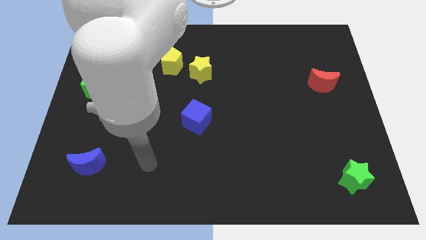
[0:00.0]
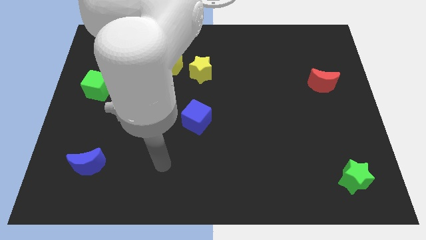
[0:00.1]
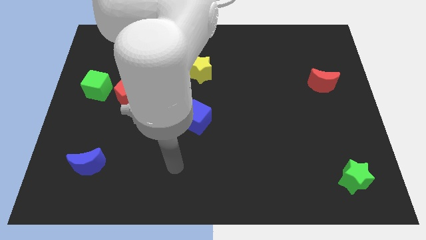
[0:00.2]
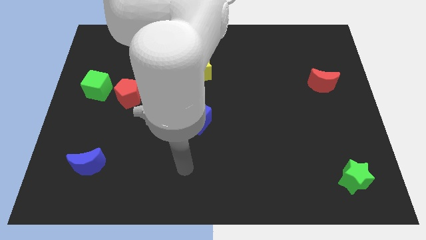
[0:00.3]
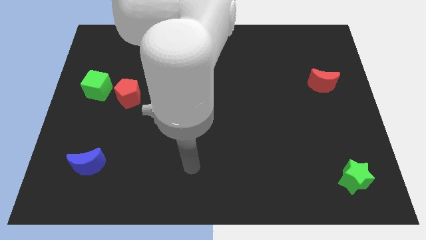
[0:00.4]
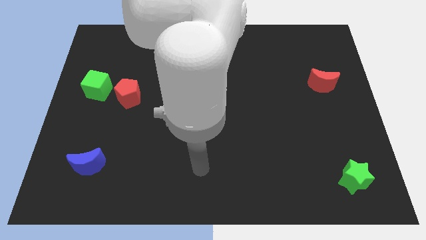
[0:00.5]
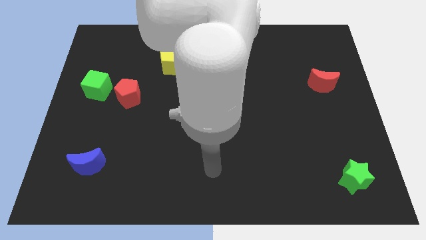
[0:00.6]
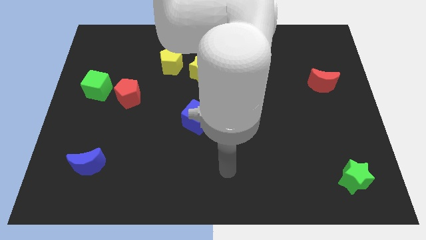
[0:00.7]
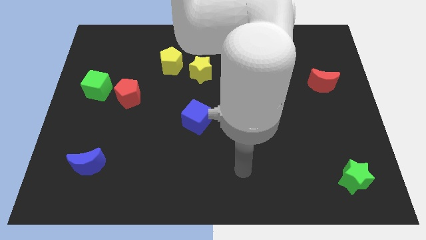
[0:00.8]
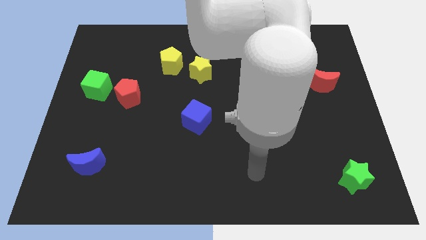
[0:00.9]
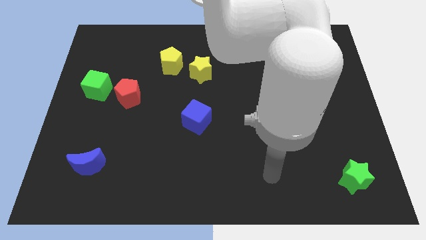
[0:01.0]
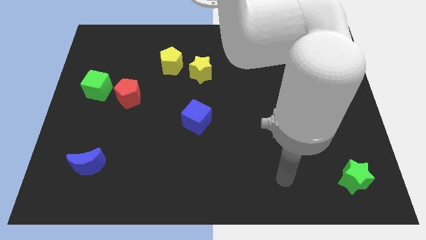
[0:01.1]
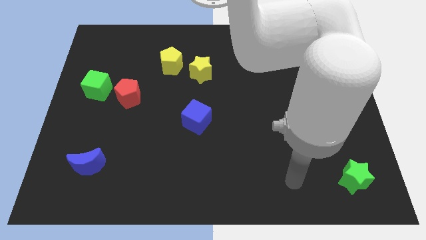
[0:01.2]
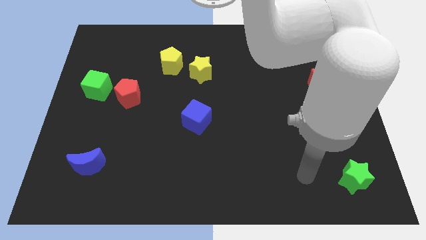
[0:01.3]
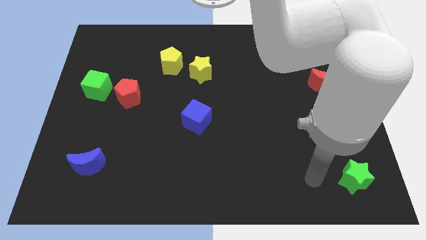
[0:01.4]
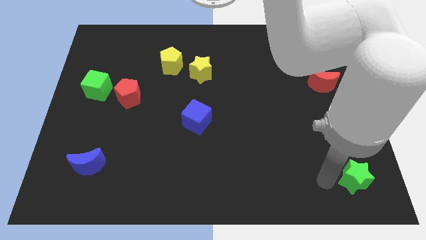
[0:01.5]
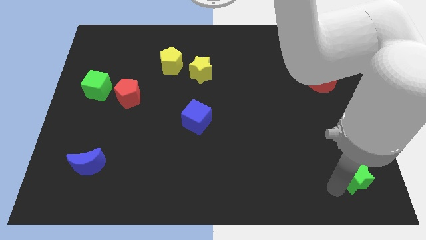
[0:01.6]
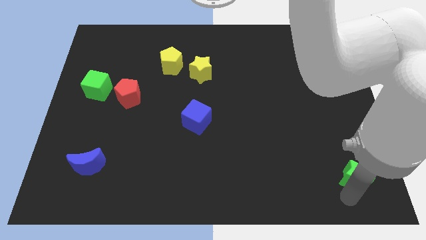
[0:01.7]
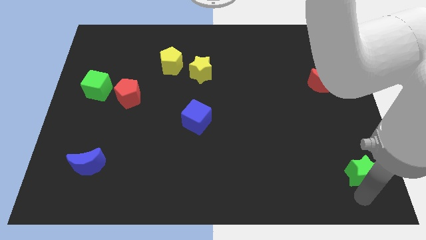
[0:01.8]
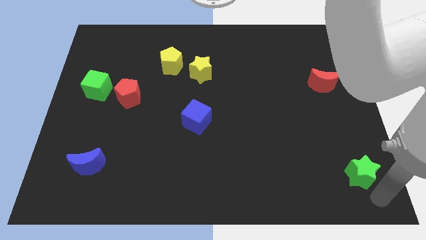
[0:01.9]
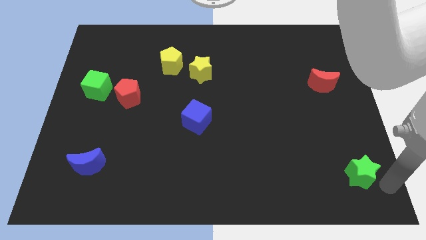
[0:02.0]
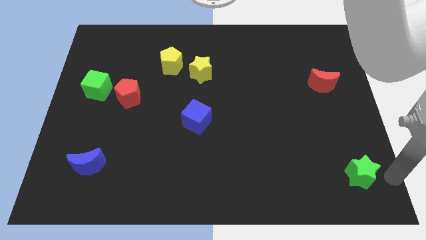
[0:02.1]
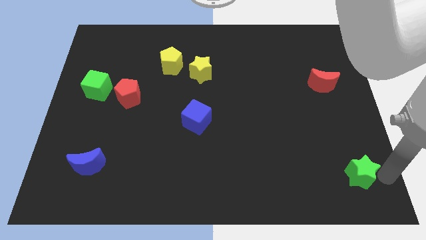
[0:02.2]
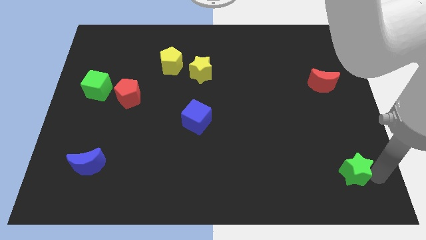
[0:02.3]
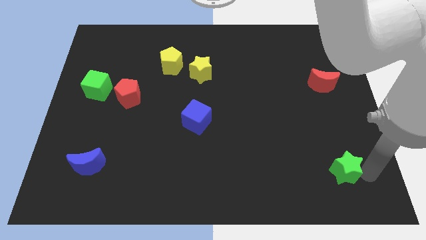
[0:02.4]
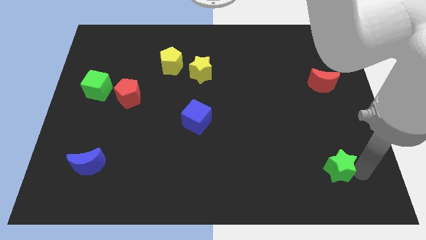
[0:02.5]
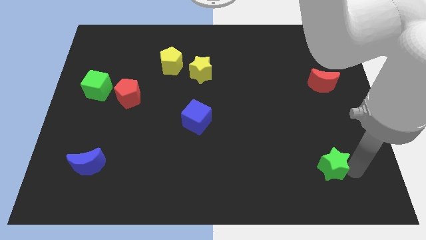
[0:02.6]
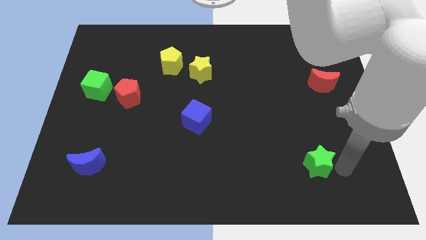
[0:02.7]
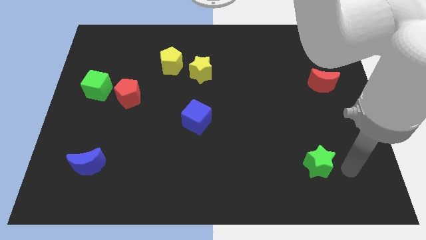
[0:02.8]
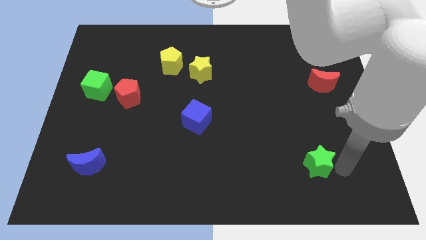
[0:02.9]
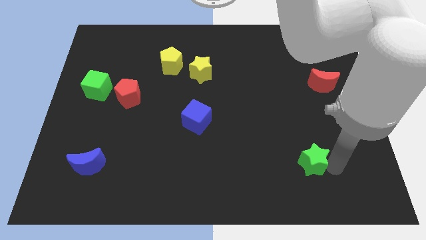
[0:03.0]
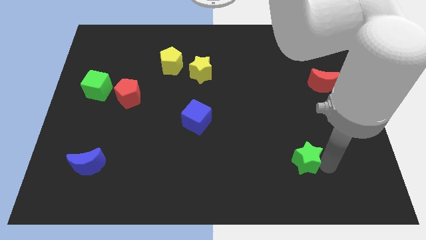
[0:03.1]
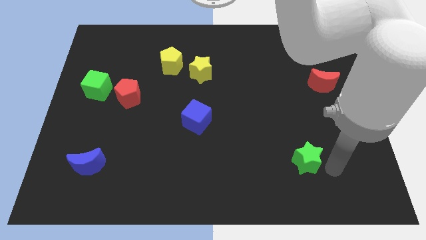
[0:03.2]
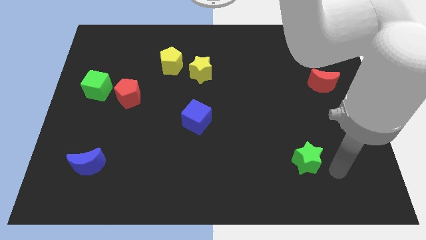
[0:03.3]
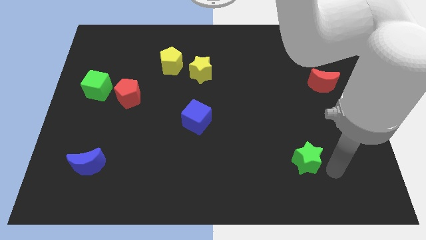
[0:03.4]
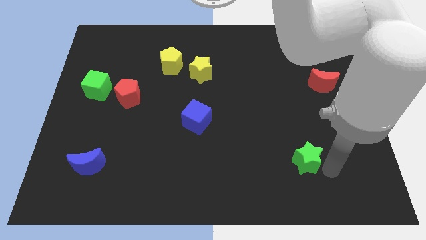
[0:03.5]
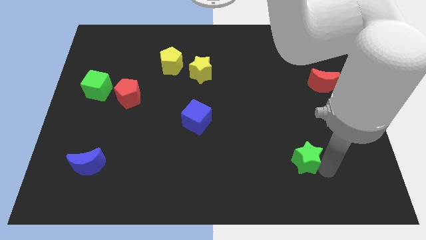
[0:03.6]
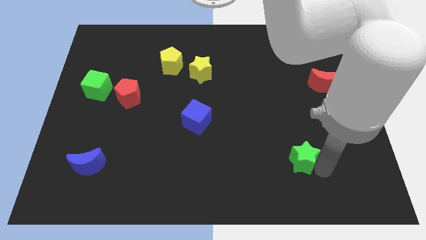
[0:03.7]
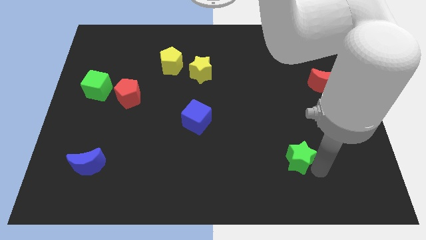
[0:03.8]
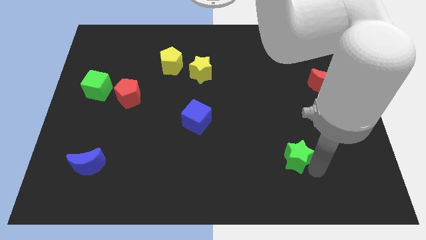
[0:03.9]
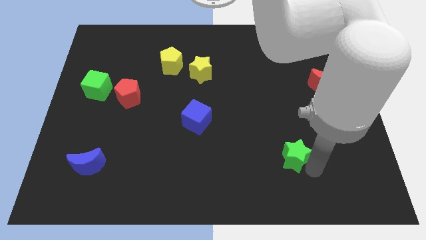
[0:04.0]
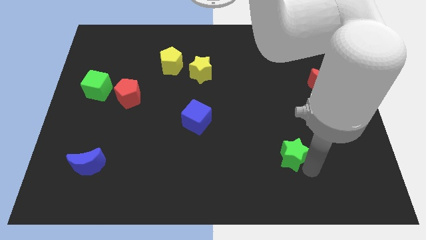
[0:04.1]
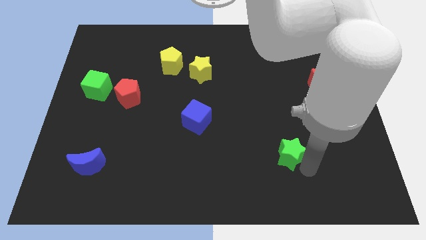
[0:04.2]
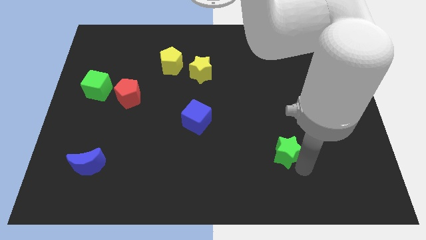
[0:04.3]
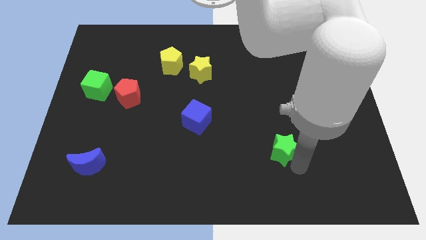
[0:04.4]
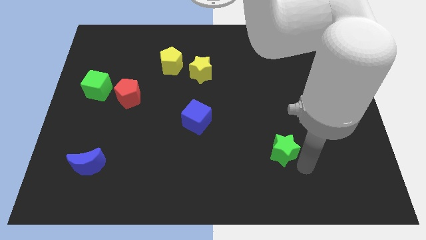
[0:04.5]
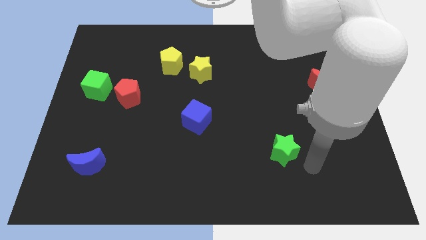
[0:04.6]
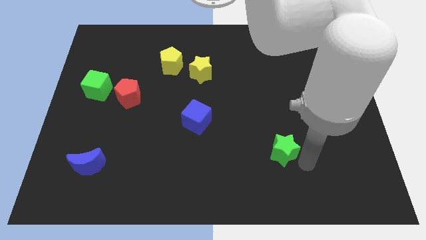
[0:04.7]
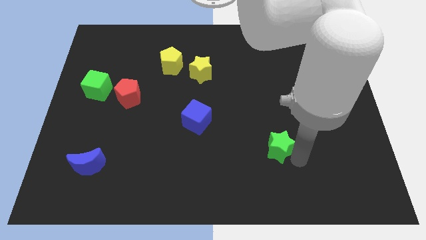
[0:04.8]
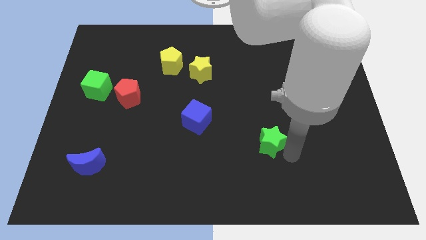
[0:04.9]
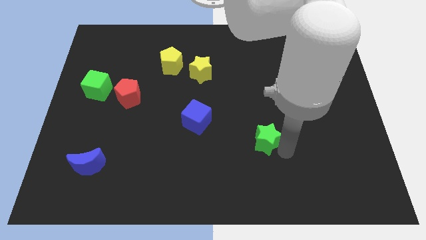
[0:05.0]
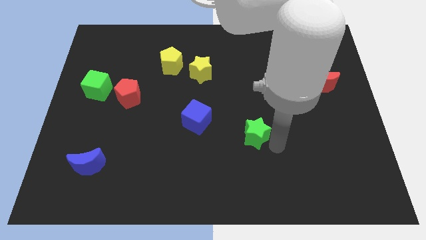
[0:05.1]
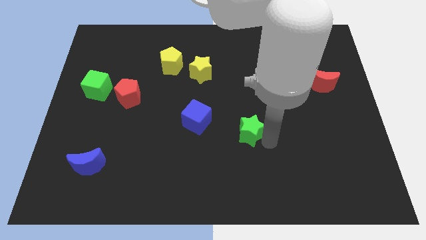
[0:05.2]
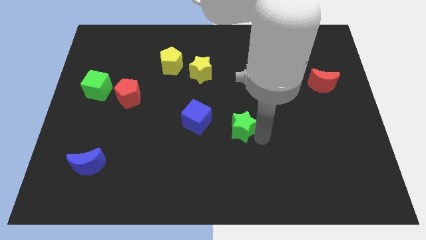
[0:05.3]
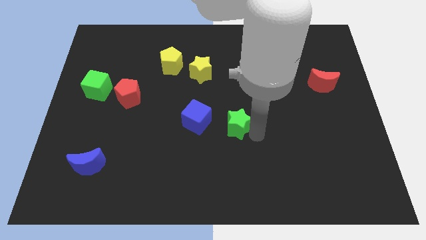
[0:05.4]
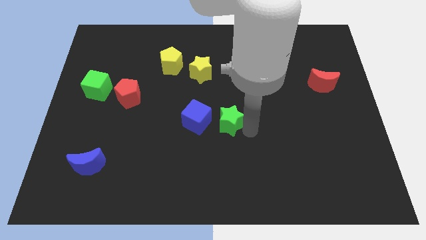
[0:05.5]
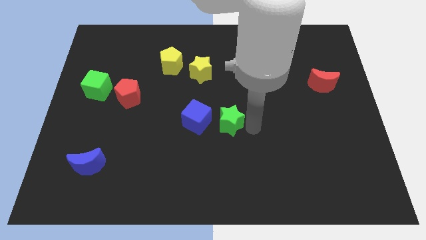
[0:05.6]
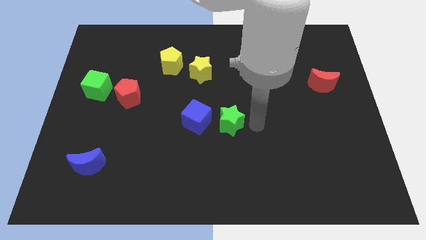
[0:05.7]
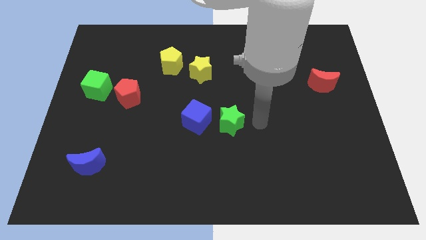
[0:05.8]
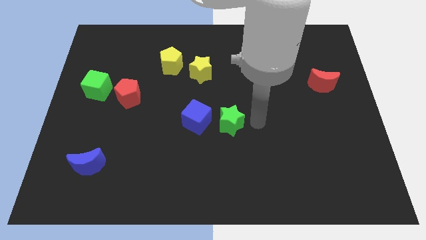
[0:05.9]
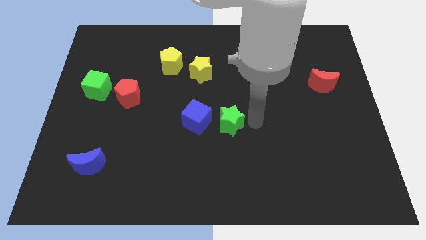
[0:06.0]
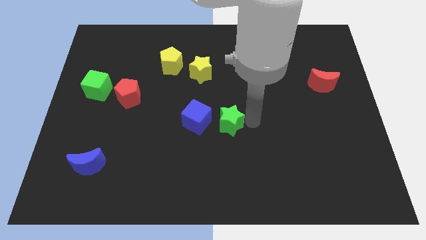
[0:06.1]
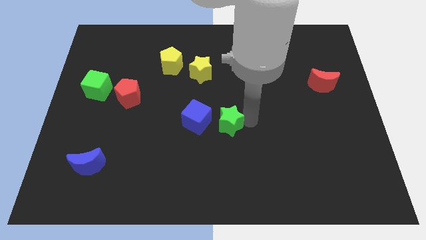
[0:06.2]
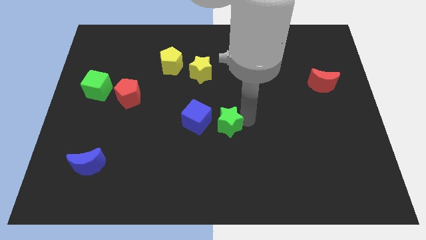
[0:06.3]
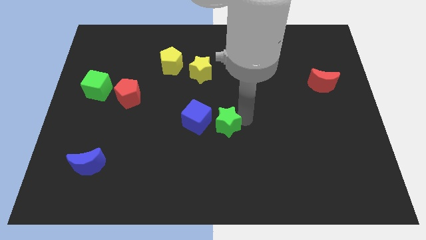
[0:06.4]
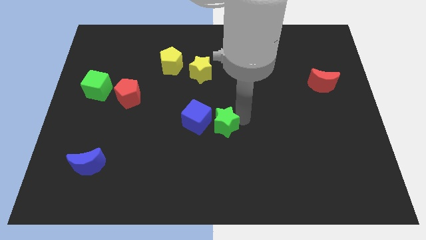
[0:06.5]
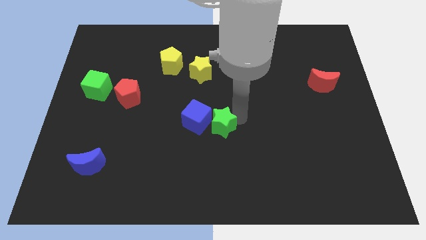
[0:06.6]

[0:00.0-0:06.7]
push the green star next to the blue cube
